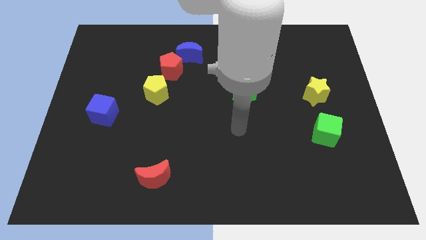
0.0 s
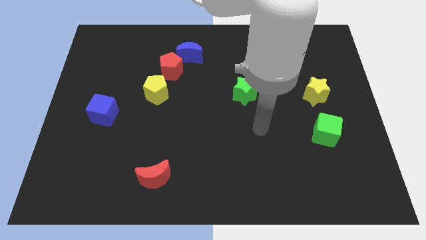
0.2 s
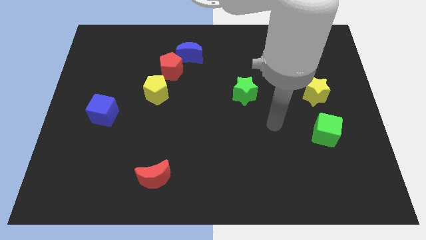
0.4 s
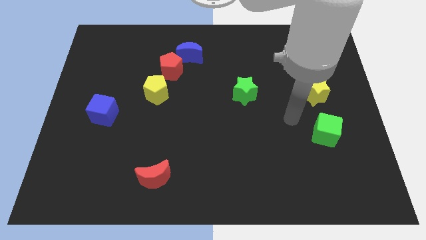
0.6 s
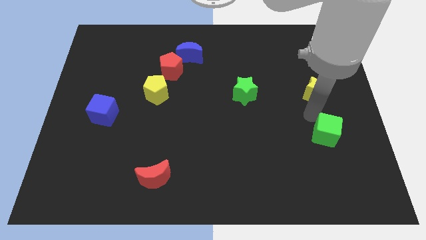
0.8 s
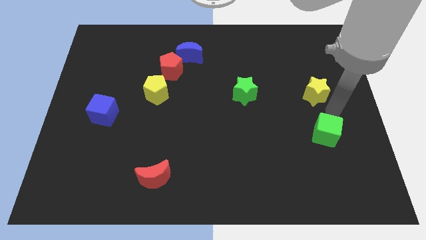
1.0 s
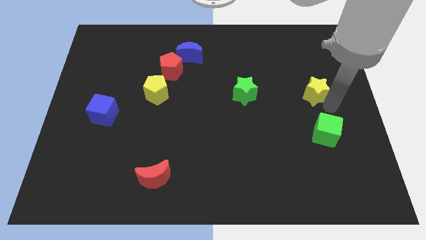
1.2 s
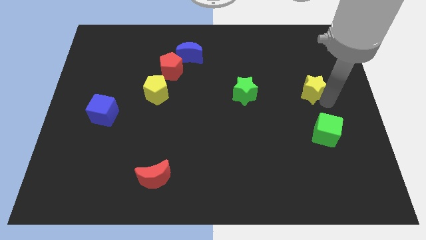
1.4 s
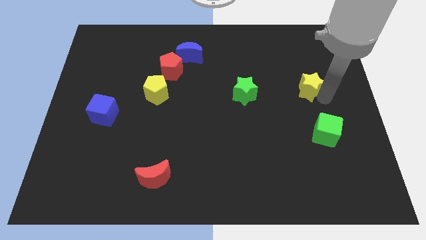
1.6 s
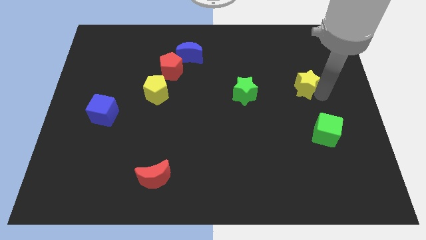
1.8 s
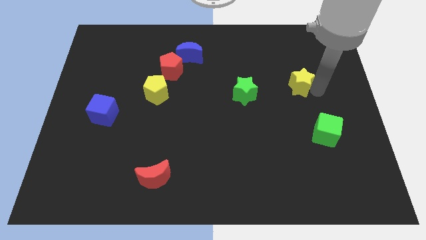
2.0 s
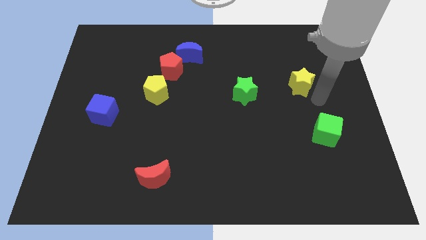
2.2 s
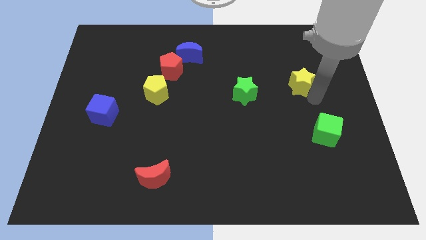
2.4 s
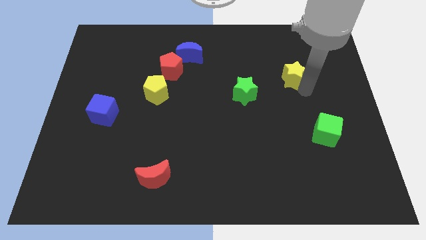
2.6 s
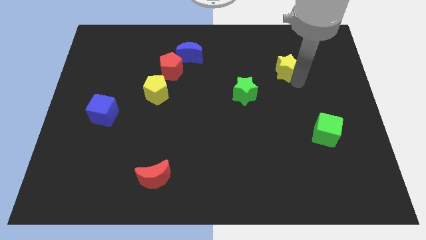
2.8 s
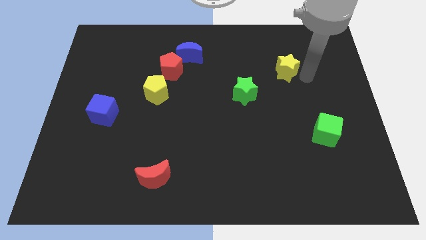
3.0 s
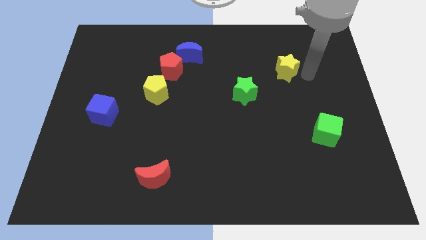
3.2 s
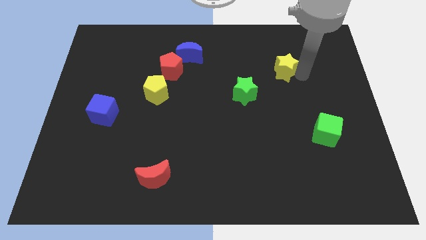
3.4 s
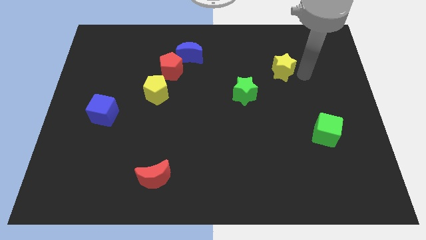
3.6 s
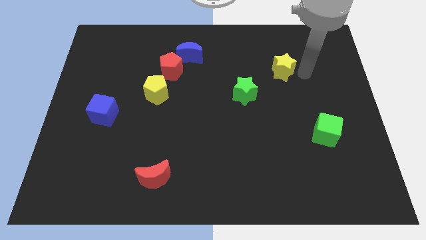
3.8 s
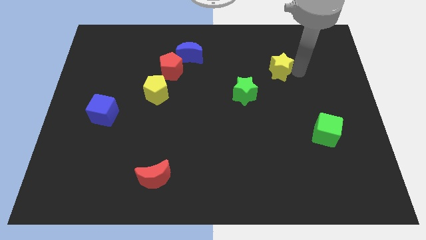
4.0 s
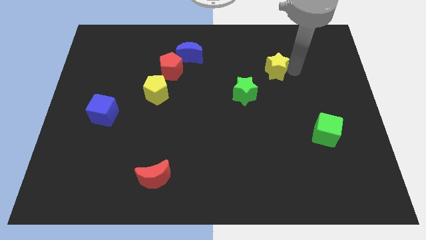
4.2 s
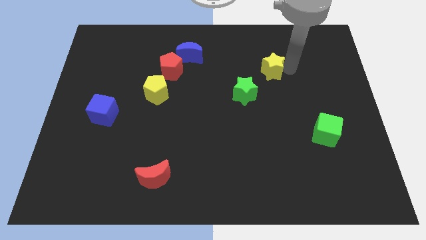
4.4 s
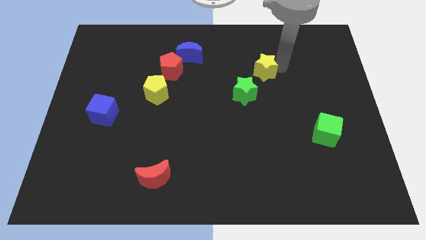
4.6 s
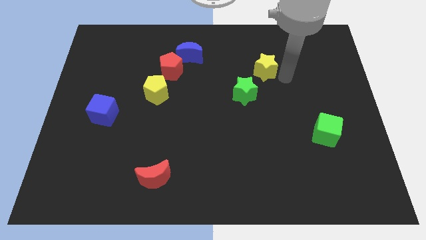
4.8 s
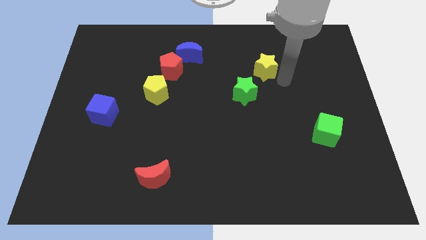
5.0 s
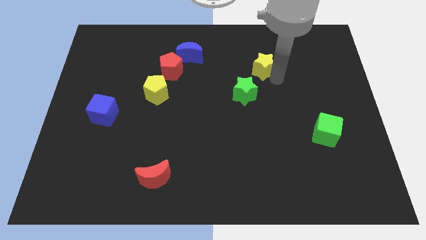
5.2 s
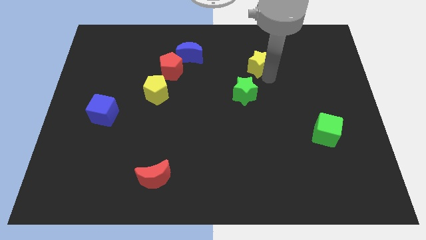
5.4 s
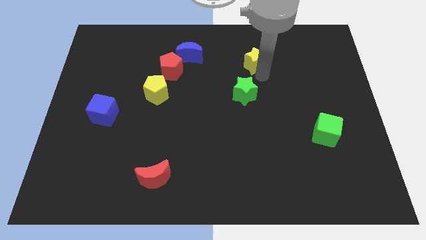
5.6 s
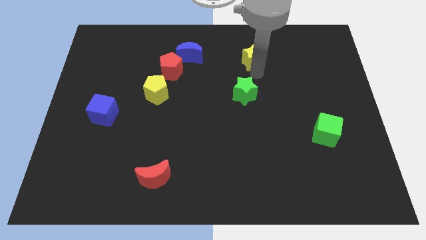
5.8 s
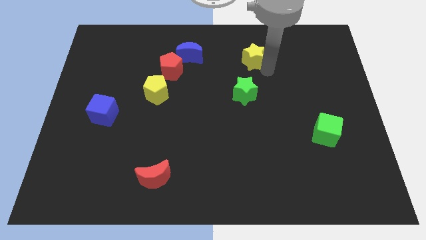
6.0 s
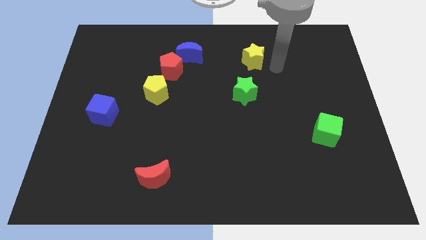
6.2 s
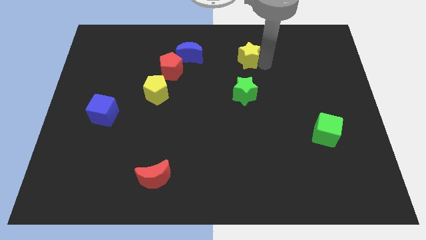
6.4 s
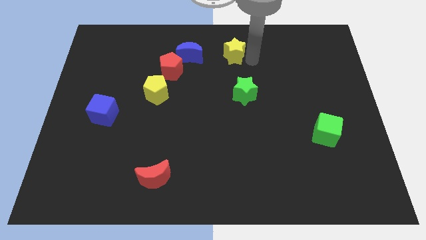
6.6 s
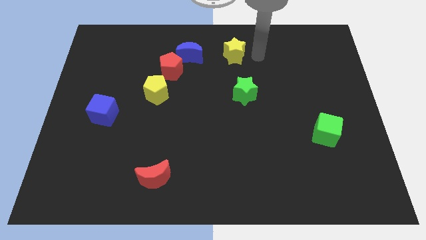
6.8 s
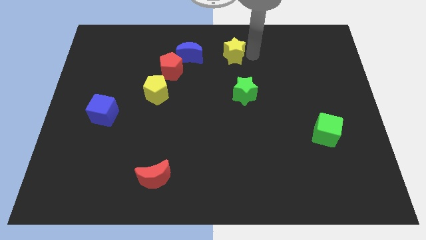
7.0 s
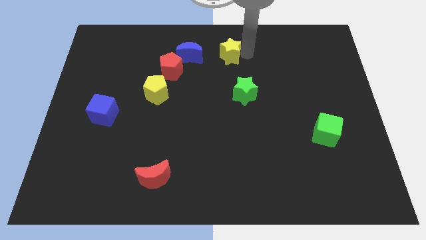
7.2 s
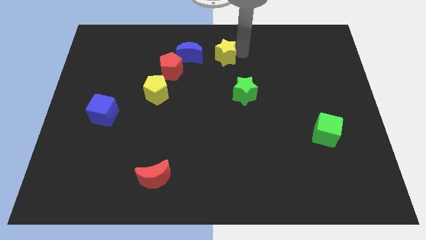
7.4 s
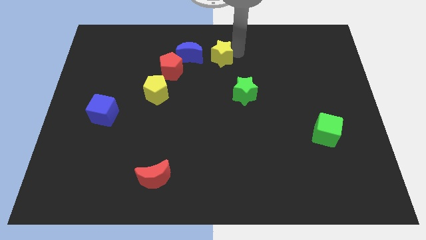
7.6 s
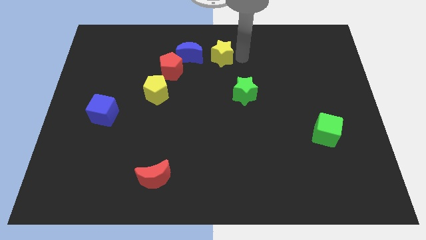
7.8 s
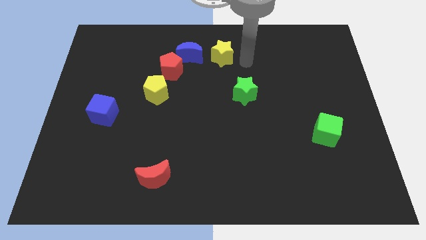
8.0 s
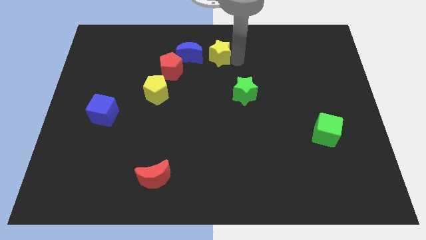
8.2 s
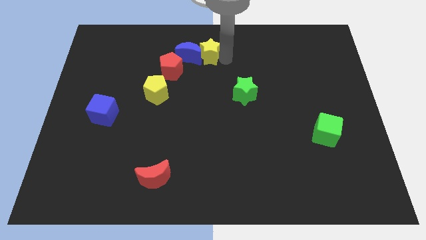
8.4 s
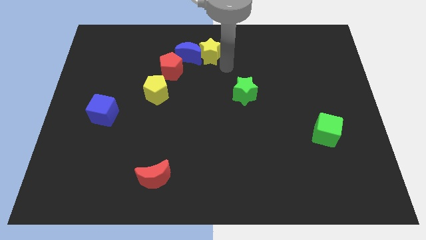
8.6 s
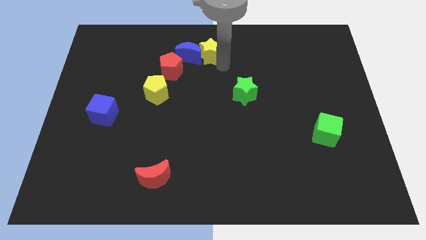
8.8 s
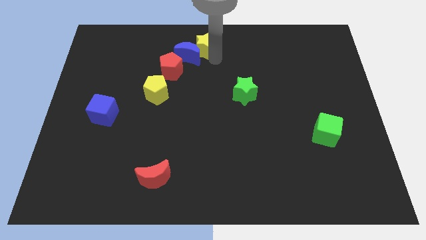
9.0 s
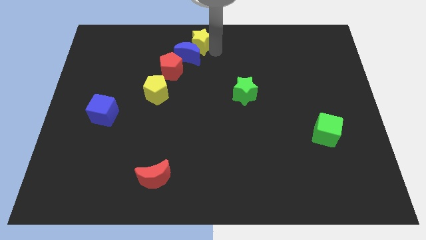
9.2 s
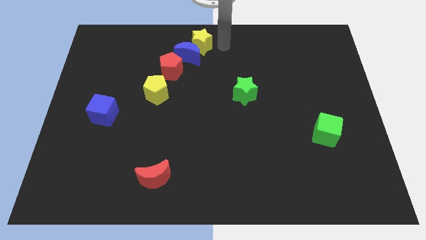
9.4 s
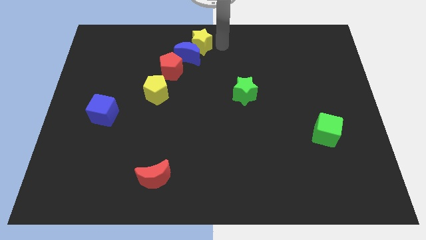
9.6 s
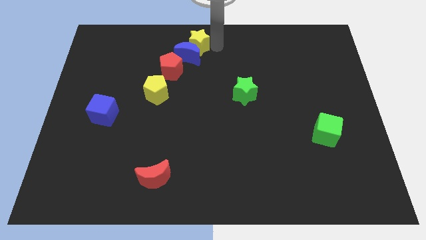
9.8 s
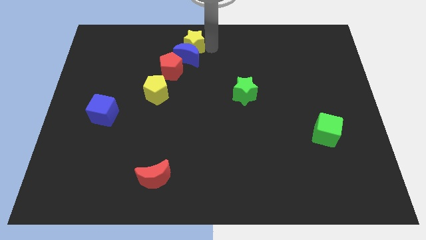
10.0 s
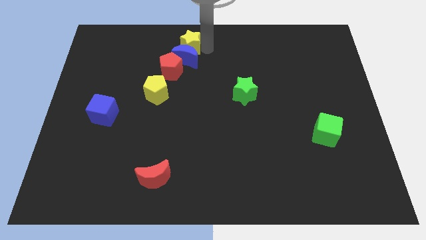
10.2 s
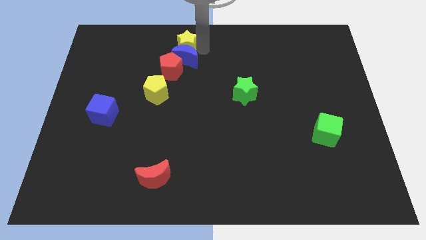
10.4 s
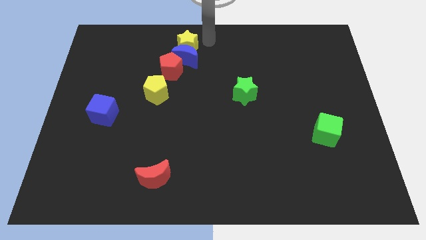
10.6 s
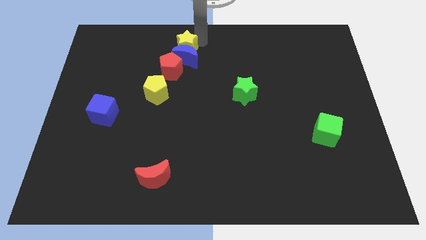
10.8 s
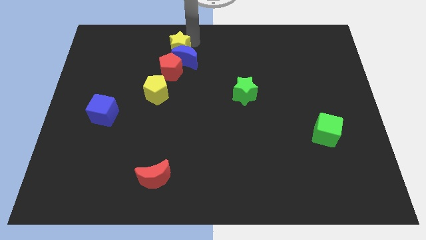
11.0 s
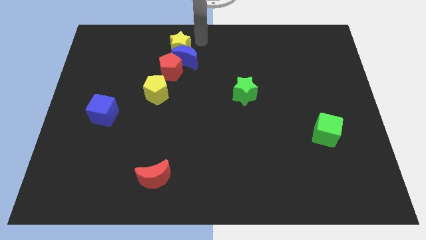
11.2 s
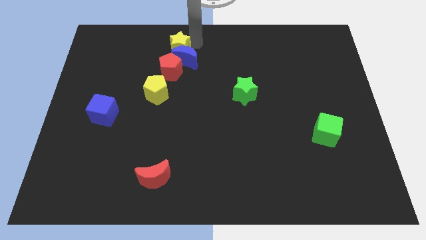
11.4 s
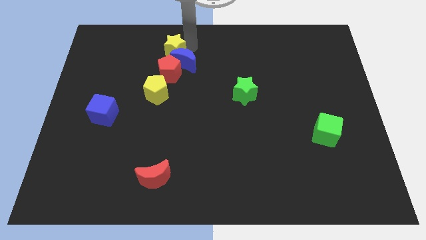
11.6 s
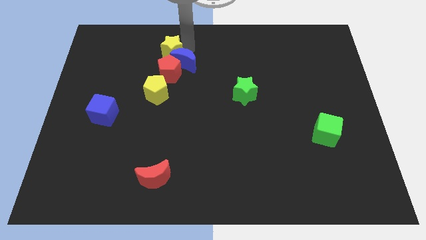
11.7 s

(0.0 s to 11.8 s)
move the yellow star left of the blue moon
